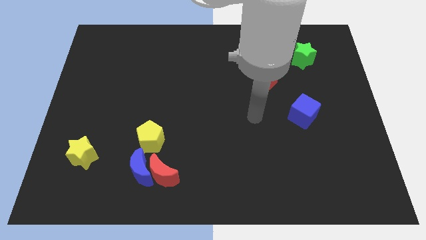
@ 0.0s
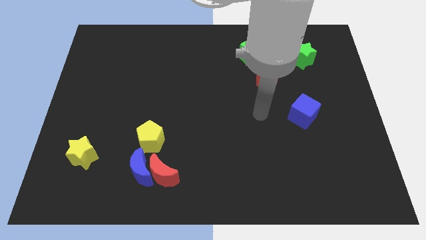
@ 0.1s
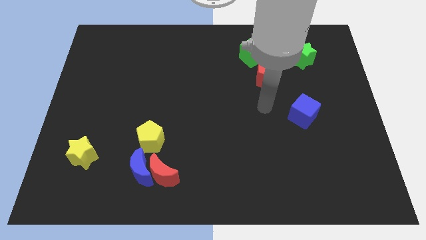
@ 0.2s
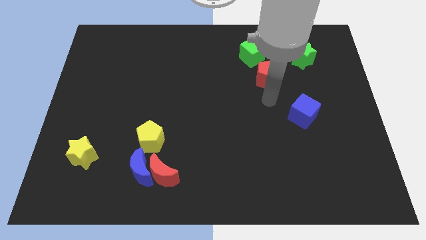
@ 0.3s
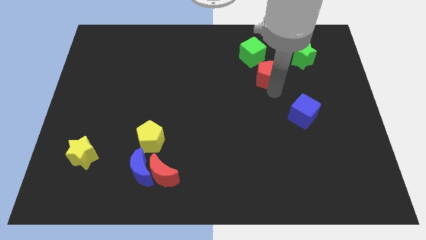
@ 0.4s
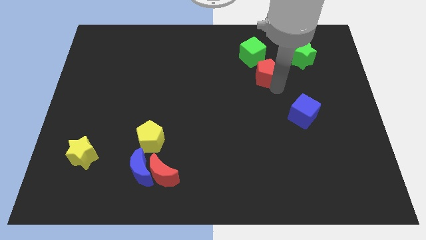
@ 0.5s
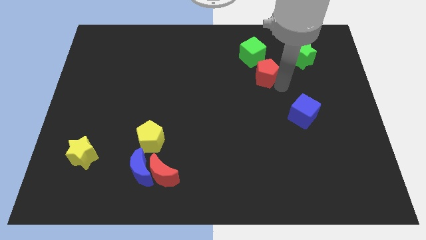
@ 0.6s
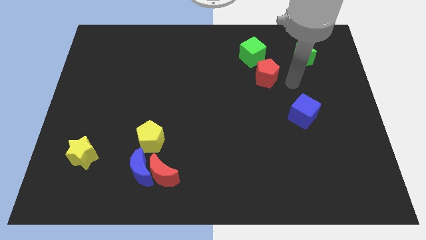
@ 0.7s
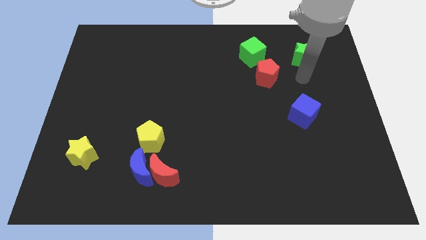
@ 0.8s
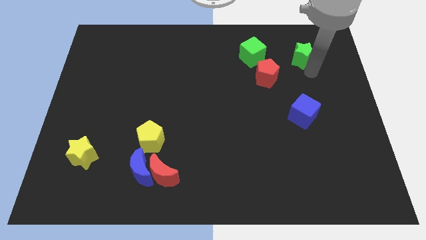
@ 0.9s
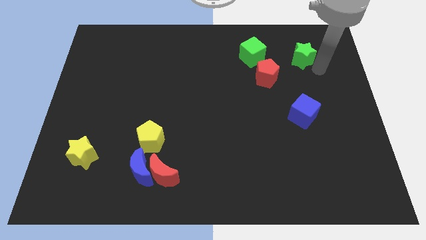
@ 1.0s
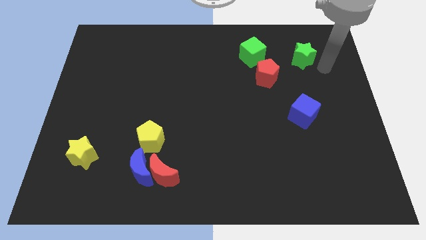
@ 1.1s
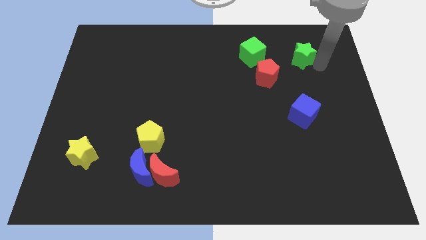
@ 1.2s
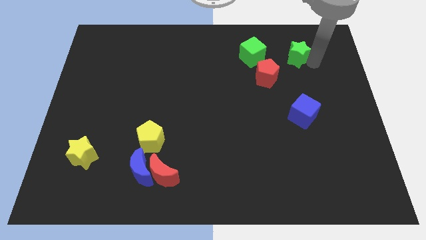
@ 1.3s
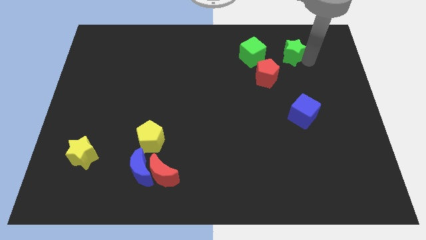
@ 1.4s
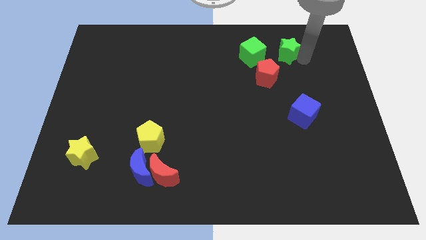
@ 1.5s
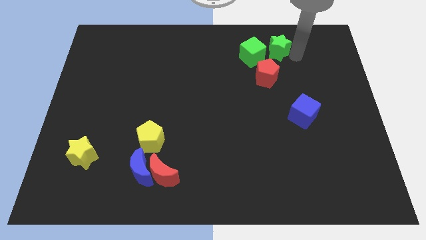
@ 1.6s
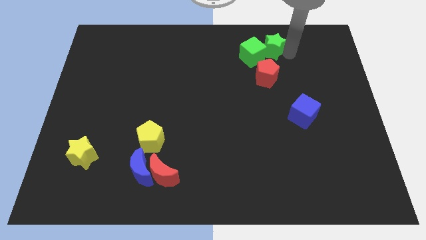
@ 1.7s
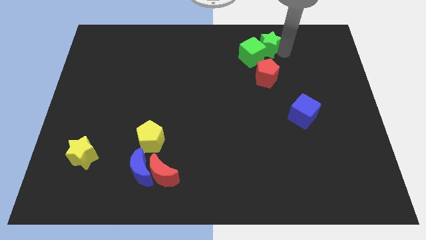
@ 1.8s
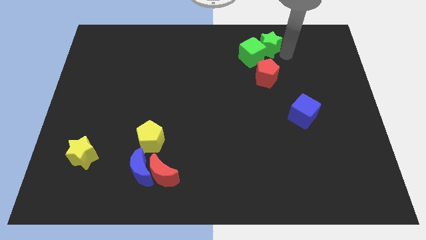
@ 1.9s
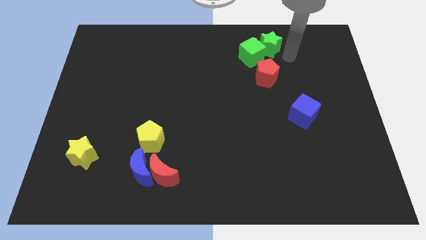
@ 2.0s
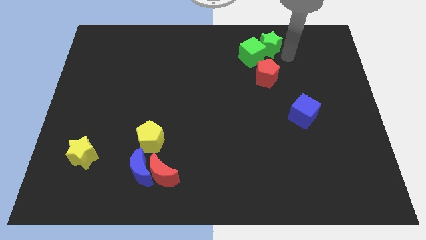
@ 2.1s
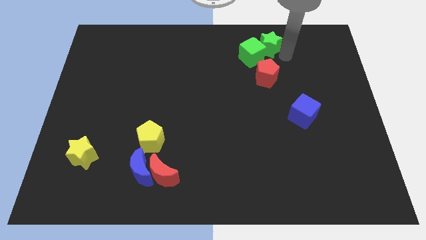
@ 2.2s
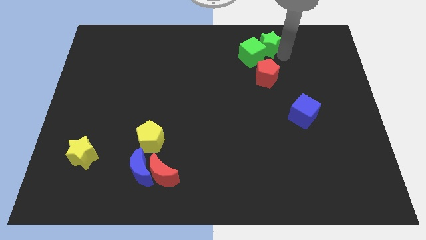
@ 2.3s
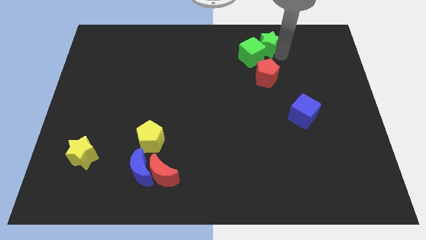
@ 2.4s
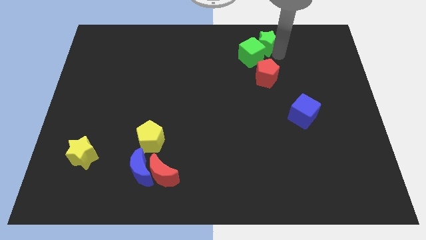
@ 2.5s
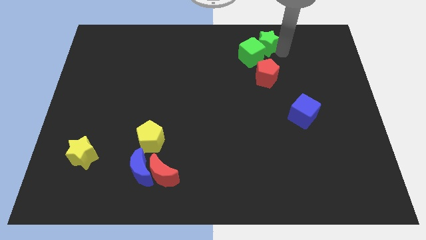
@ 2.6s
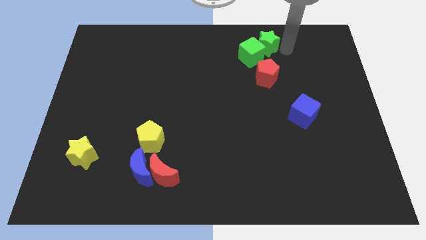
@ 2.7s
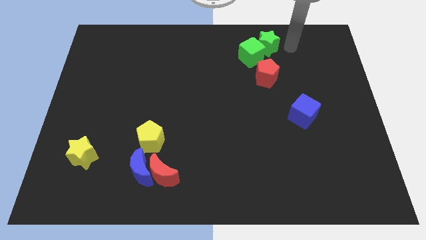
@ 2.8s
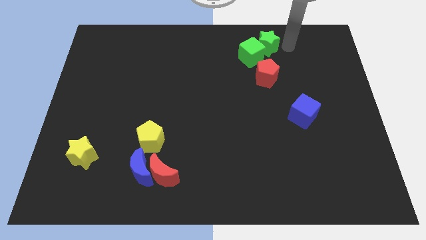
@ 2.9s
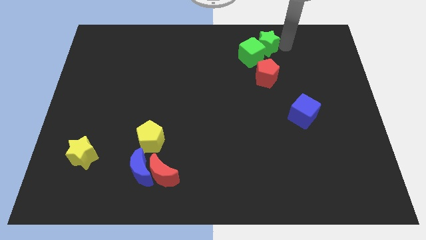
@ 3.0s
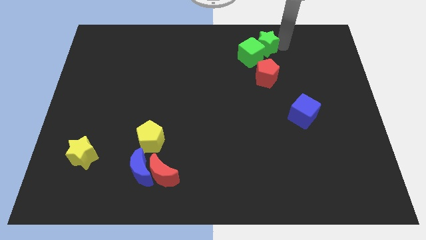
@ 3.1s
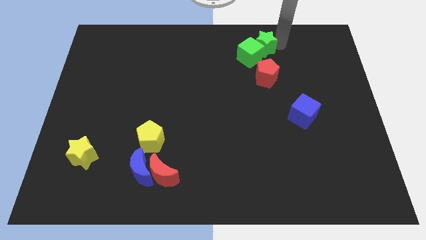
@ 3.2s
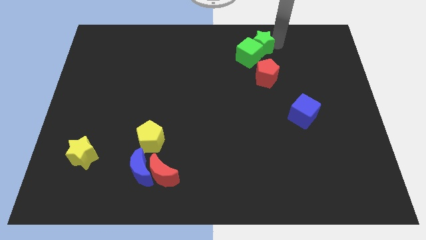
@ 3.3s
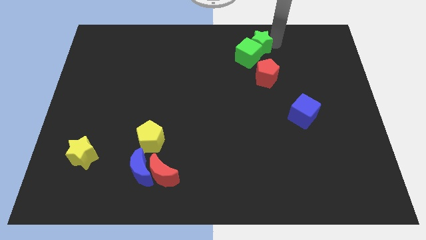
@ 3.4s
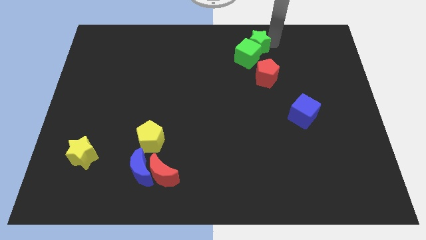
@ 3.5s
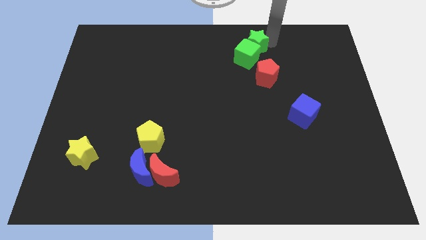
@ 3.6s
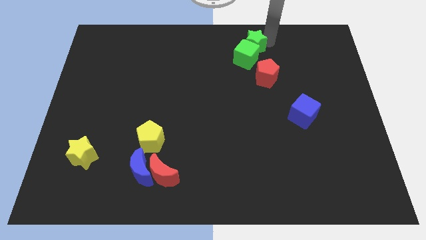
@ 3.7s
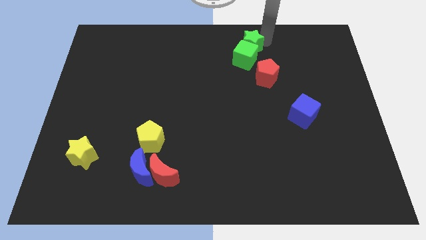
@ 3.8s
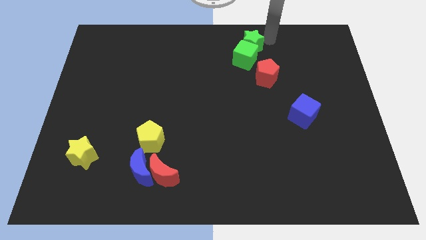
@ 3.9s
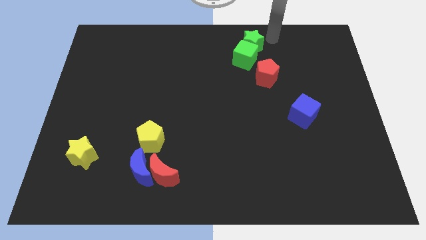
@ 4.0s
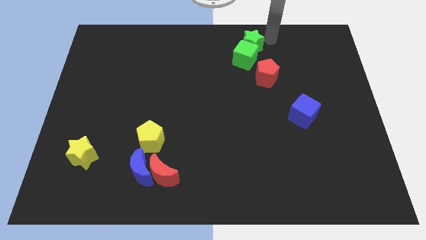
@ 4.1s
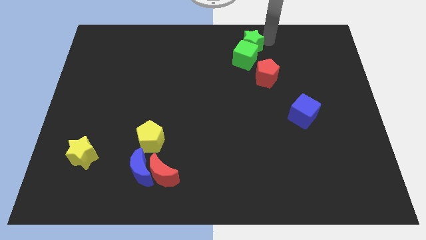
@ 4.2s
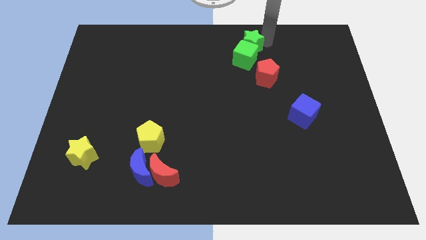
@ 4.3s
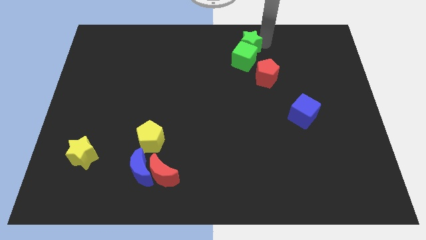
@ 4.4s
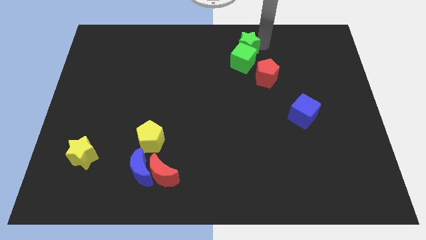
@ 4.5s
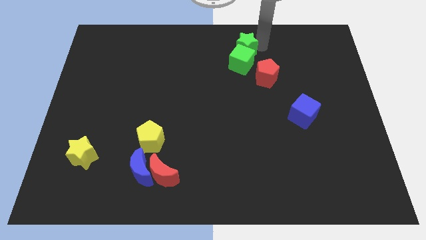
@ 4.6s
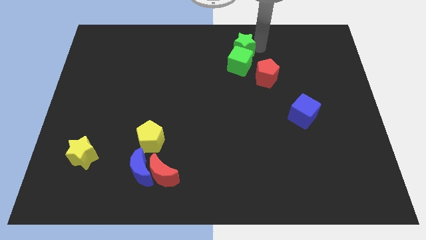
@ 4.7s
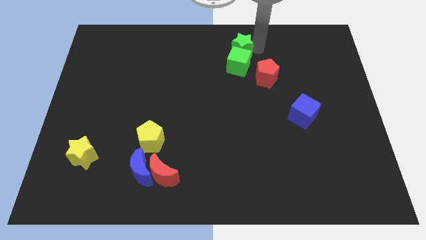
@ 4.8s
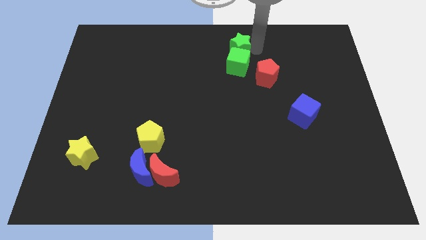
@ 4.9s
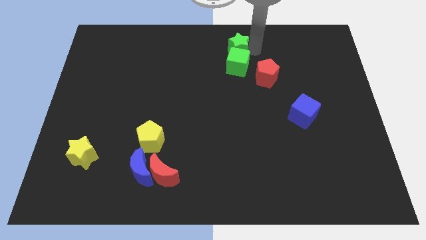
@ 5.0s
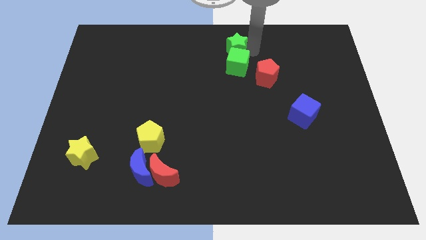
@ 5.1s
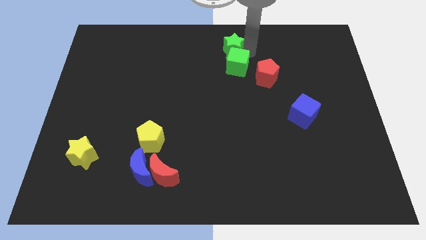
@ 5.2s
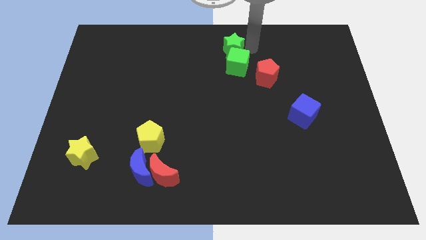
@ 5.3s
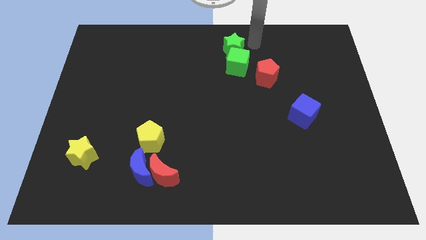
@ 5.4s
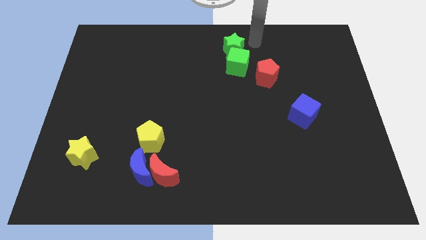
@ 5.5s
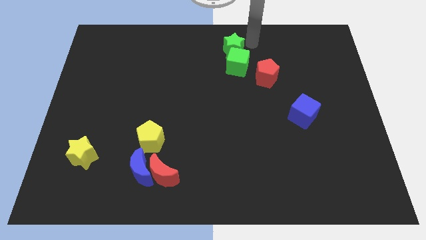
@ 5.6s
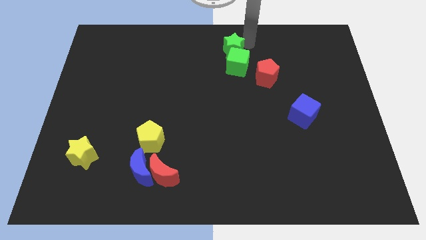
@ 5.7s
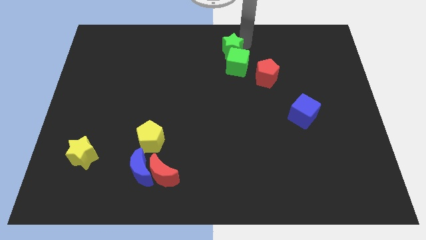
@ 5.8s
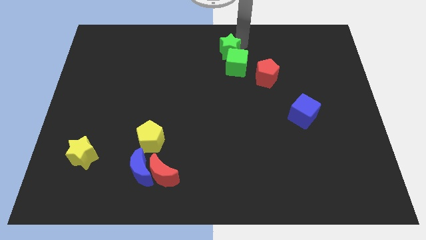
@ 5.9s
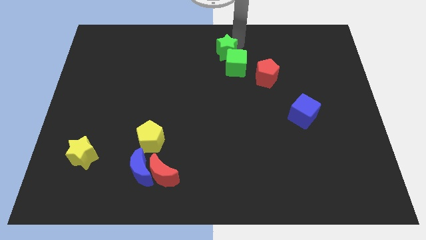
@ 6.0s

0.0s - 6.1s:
push the green star to the left

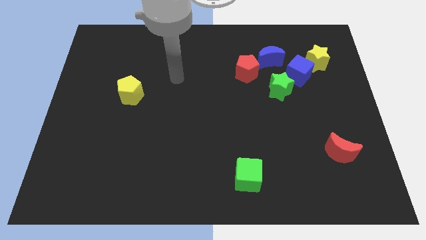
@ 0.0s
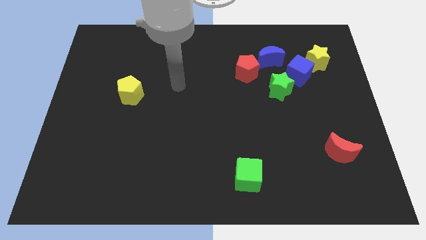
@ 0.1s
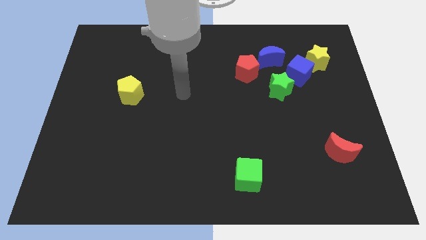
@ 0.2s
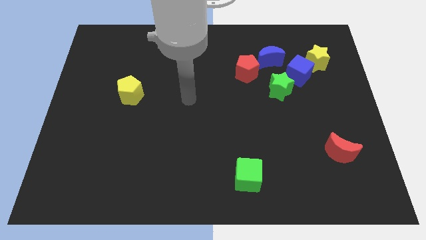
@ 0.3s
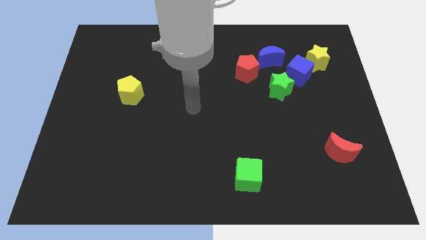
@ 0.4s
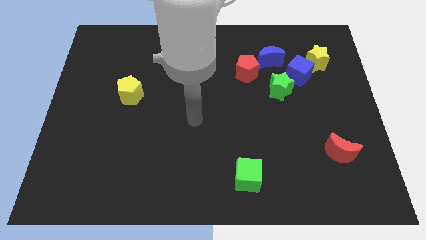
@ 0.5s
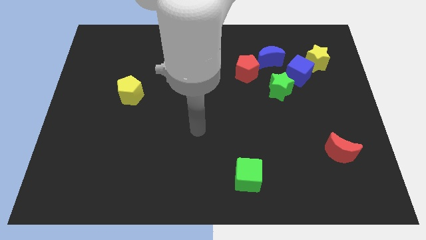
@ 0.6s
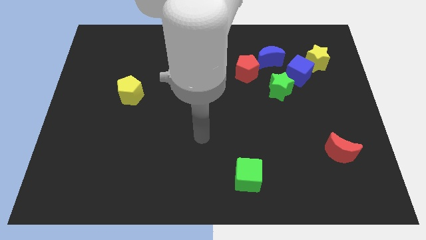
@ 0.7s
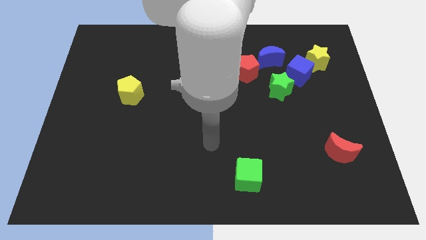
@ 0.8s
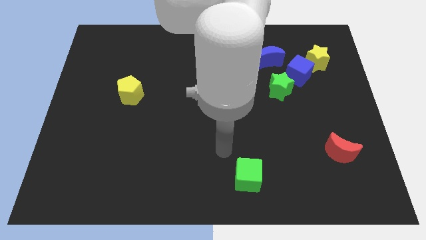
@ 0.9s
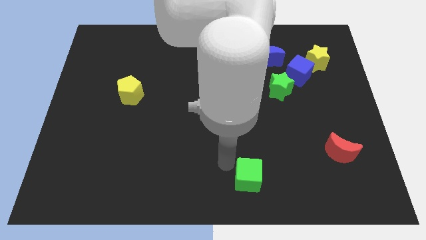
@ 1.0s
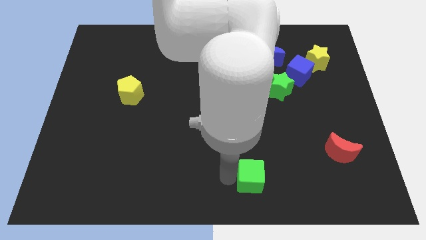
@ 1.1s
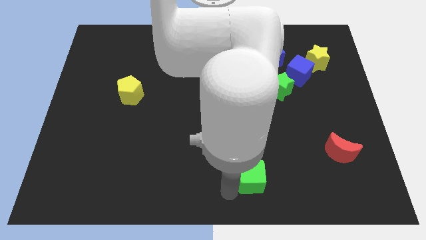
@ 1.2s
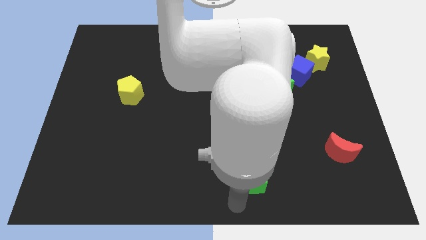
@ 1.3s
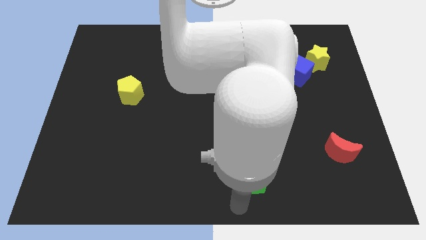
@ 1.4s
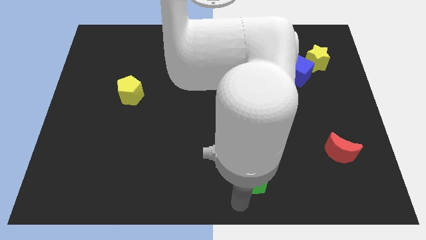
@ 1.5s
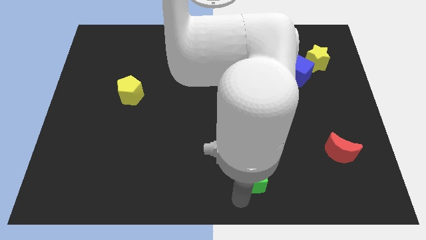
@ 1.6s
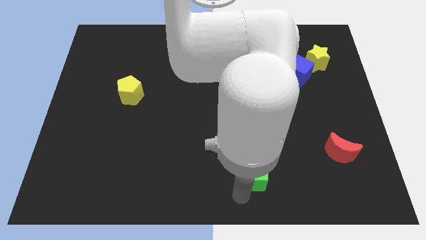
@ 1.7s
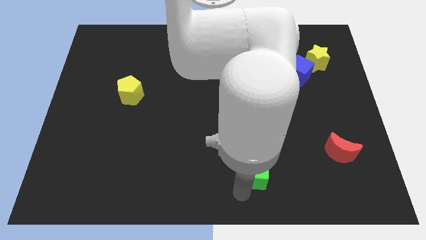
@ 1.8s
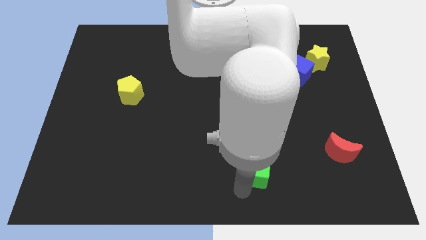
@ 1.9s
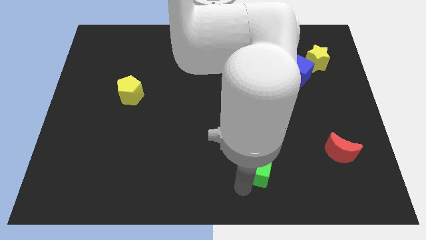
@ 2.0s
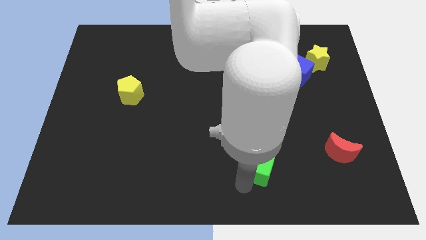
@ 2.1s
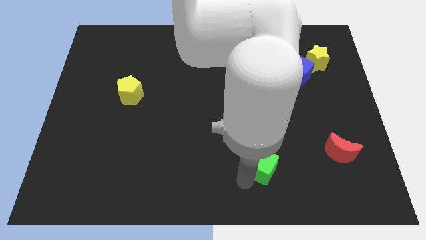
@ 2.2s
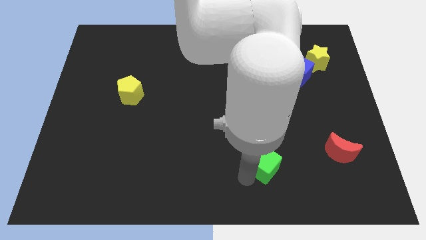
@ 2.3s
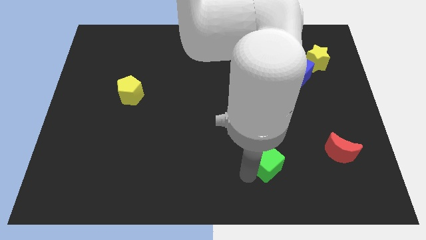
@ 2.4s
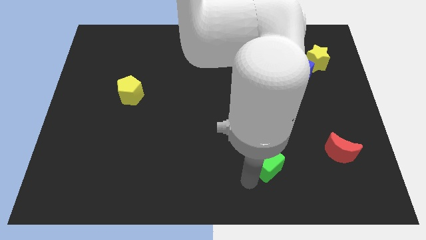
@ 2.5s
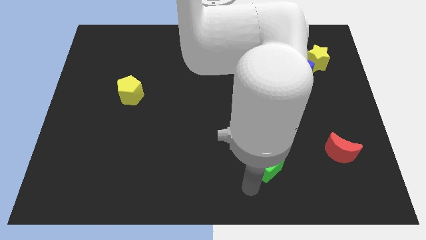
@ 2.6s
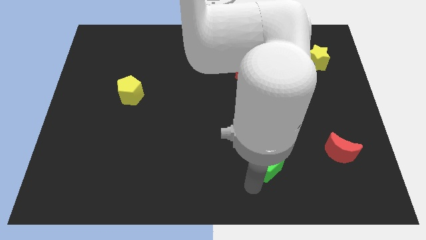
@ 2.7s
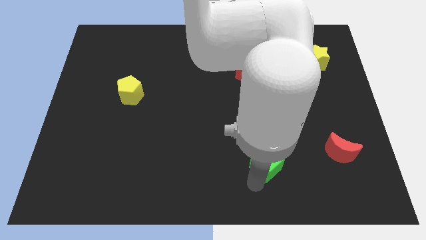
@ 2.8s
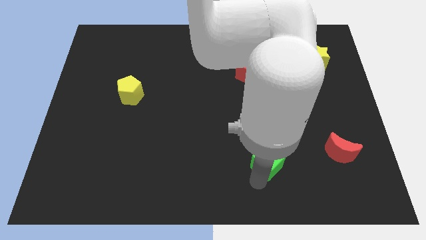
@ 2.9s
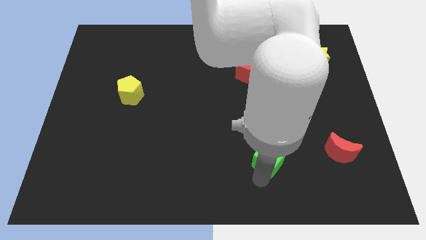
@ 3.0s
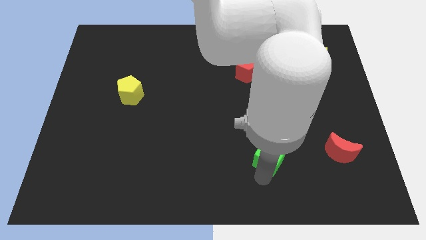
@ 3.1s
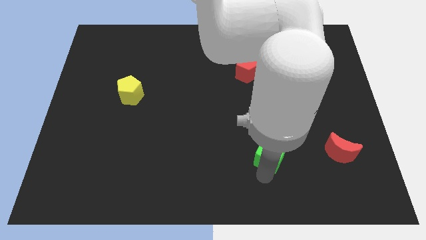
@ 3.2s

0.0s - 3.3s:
move the green cube a bit up and to the right diagonally
